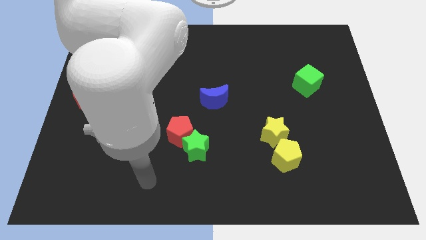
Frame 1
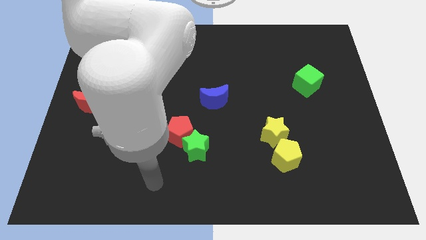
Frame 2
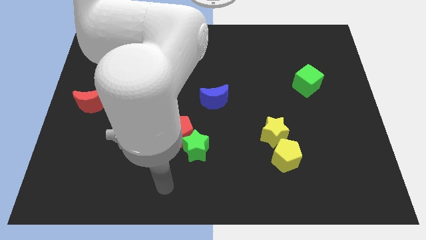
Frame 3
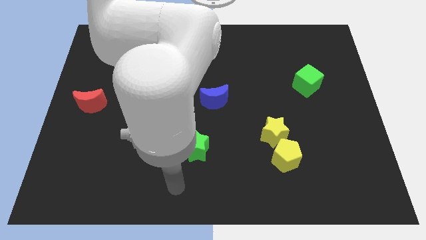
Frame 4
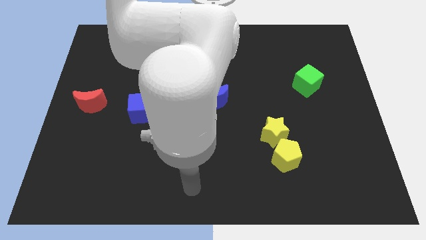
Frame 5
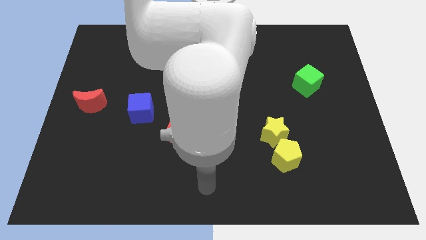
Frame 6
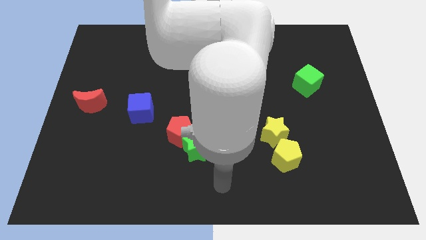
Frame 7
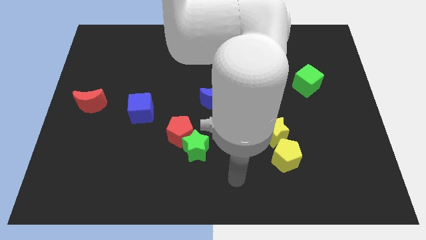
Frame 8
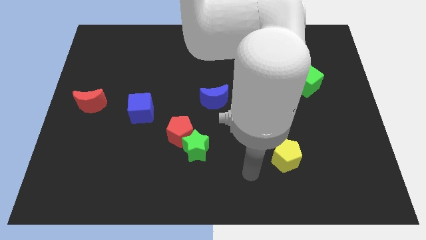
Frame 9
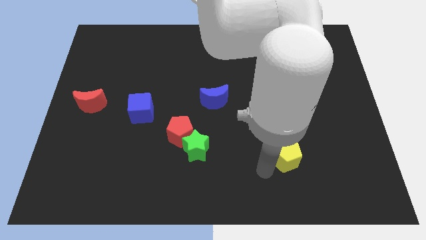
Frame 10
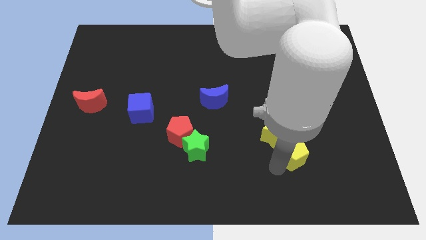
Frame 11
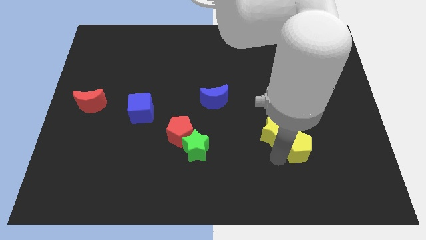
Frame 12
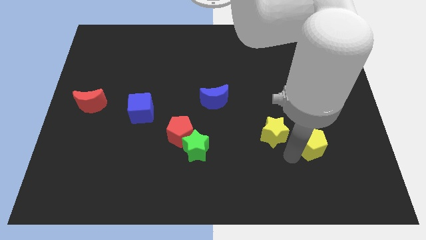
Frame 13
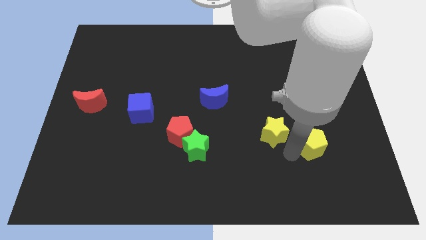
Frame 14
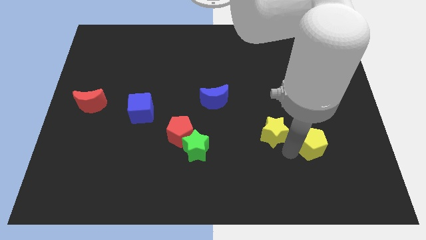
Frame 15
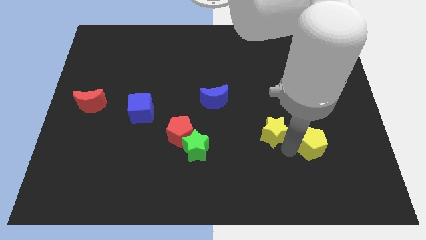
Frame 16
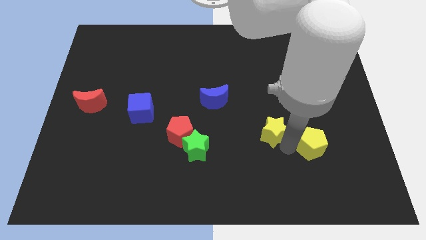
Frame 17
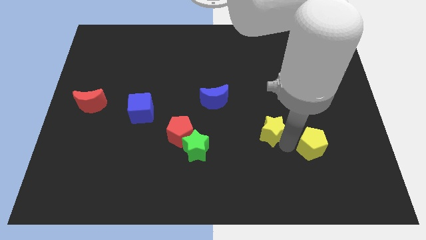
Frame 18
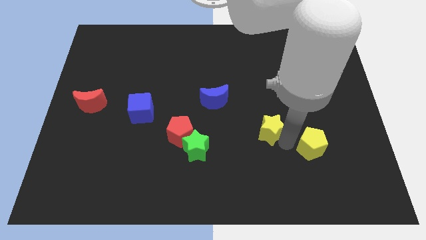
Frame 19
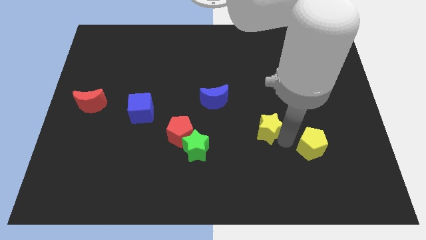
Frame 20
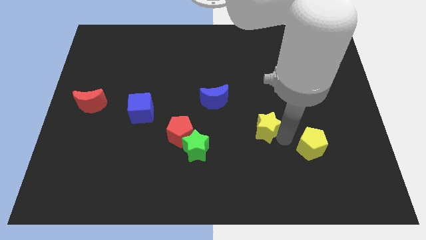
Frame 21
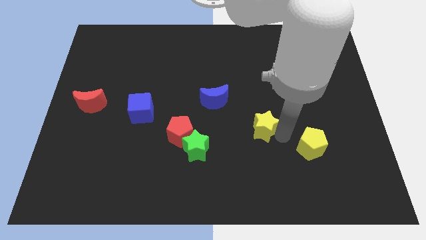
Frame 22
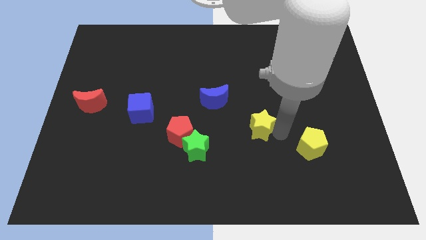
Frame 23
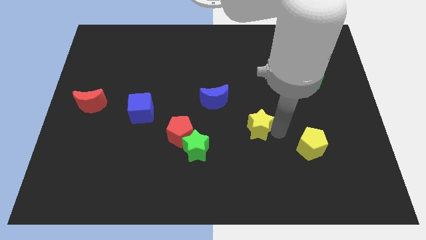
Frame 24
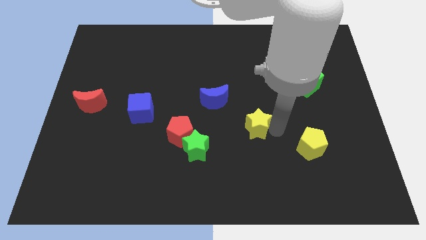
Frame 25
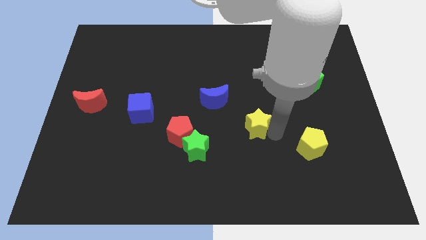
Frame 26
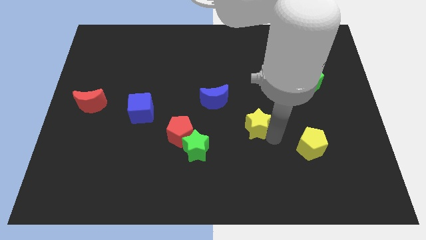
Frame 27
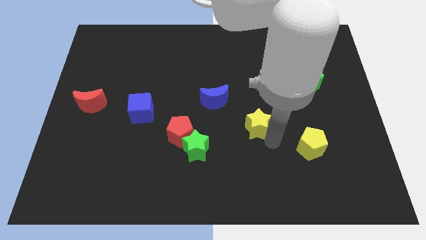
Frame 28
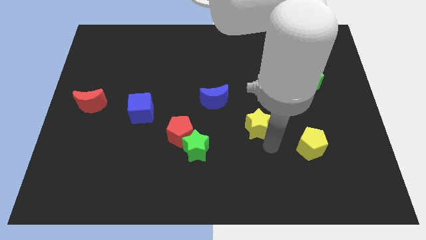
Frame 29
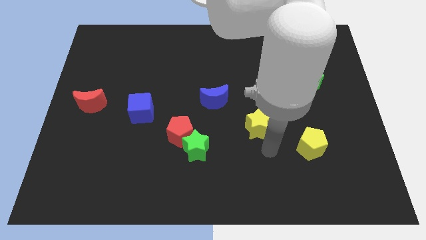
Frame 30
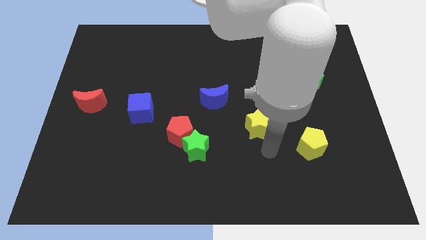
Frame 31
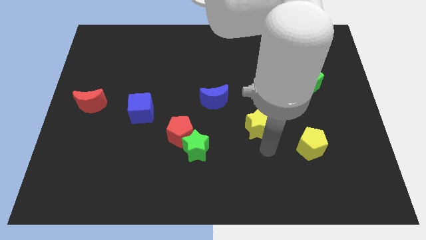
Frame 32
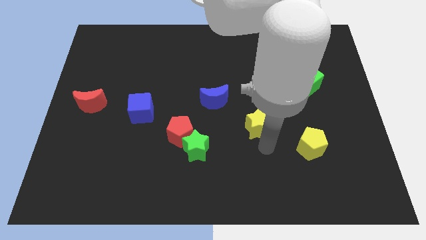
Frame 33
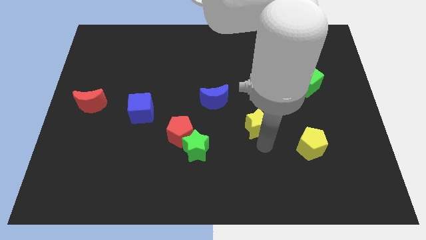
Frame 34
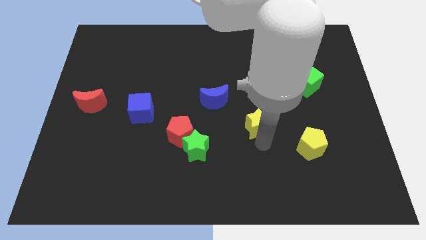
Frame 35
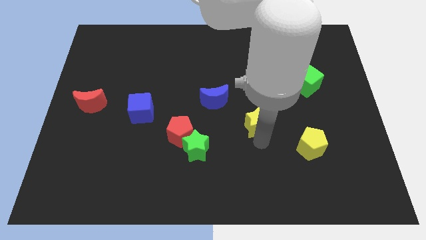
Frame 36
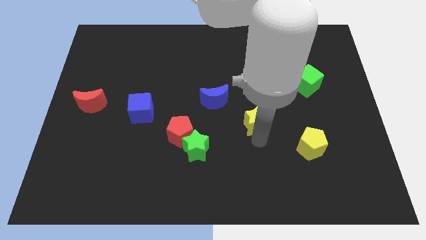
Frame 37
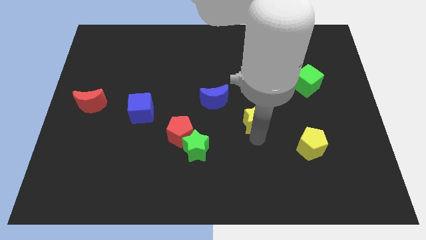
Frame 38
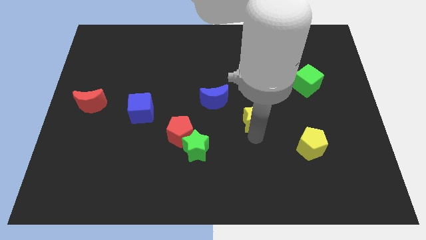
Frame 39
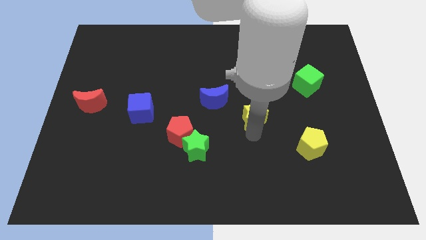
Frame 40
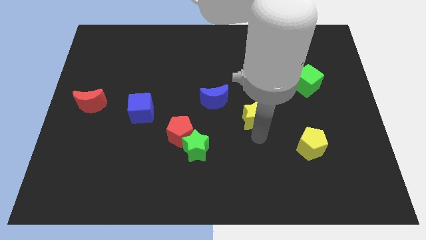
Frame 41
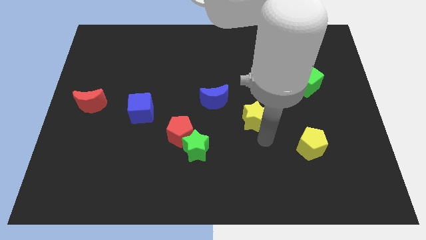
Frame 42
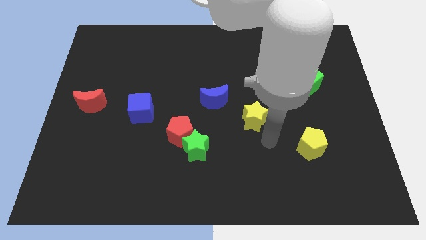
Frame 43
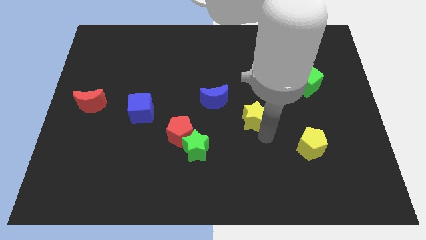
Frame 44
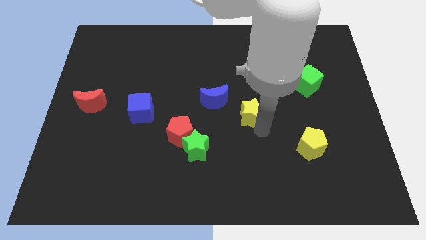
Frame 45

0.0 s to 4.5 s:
slightly move the yellow star upwards and left diagonally

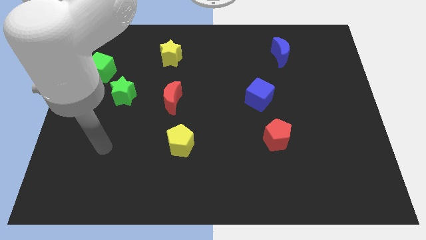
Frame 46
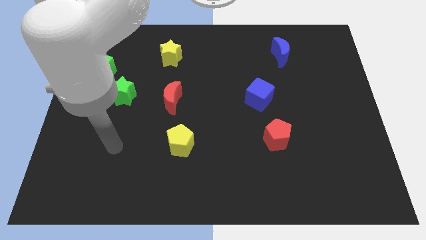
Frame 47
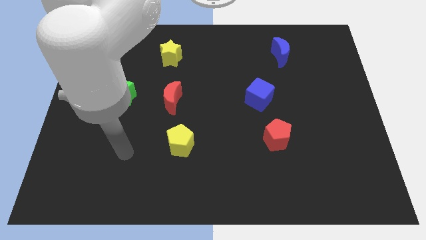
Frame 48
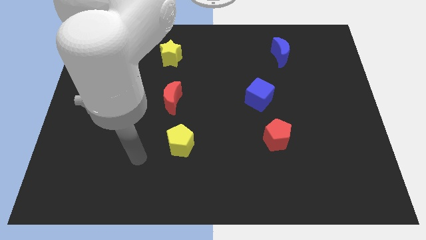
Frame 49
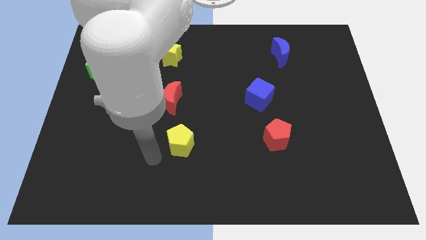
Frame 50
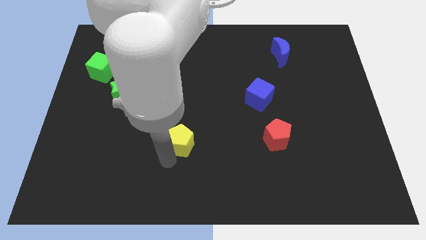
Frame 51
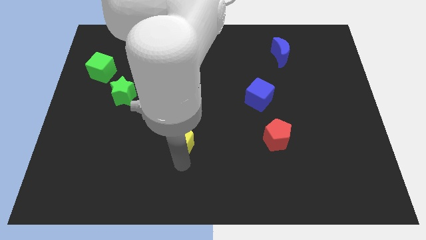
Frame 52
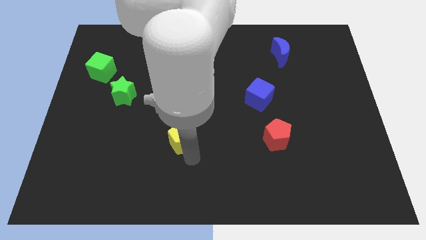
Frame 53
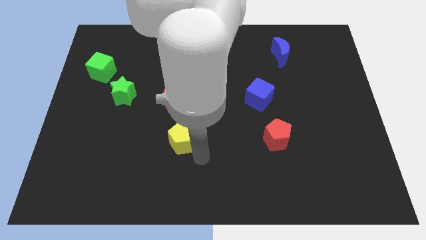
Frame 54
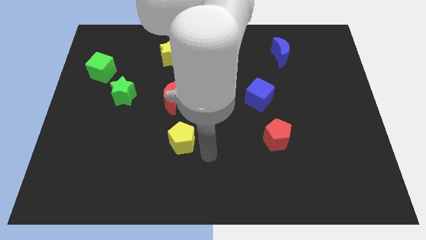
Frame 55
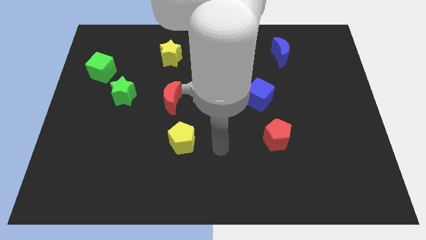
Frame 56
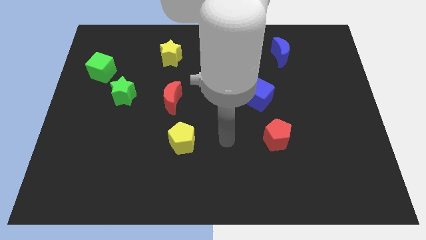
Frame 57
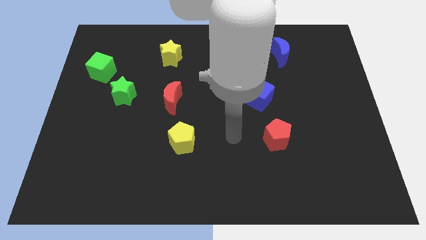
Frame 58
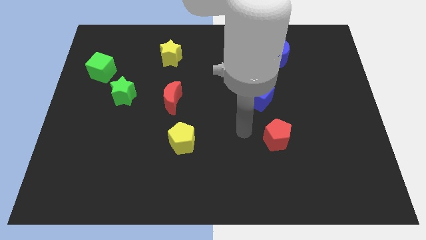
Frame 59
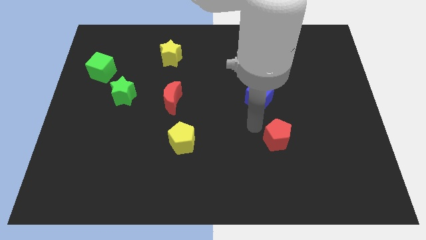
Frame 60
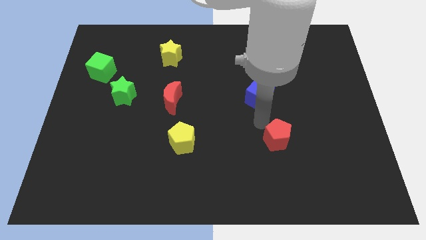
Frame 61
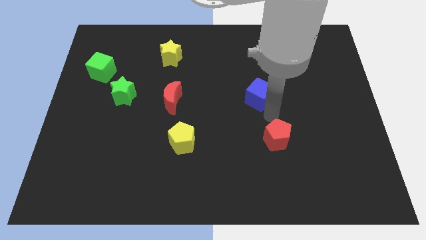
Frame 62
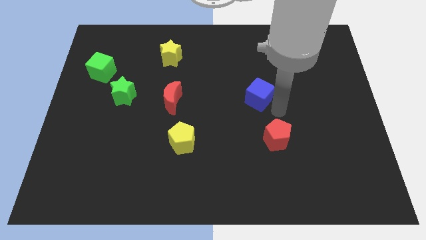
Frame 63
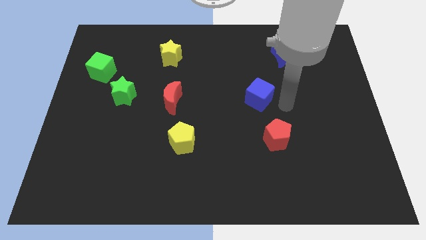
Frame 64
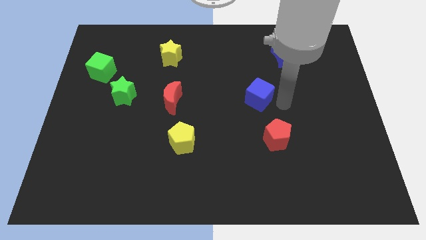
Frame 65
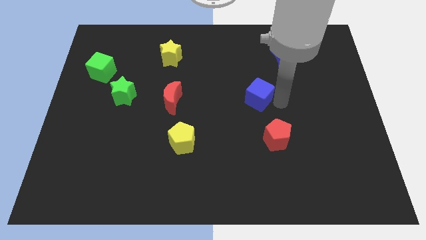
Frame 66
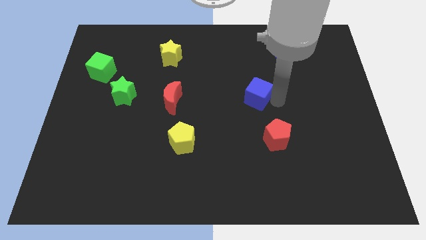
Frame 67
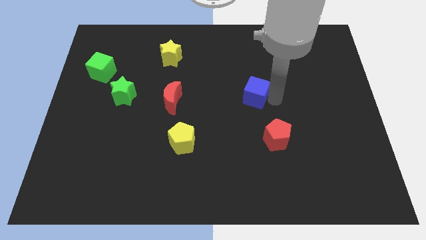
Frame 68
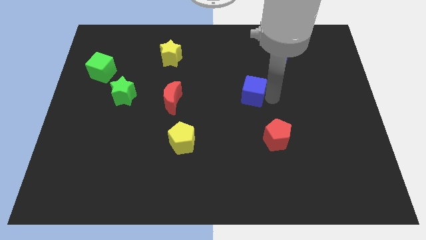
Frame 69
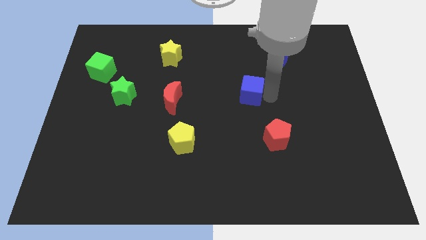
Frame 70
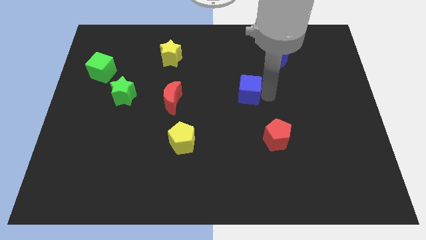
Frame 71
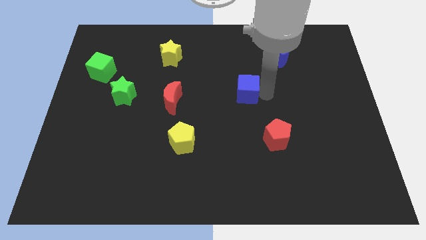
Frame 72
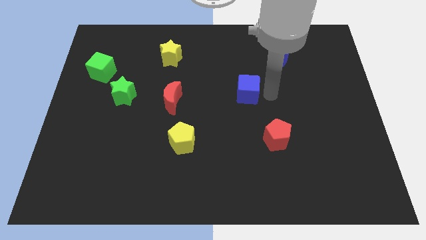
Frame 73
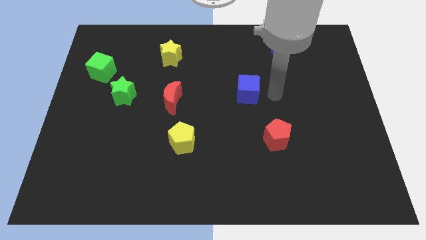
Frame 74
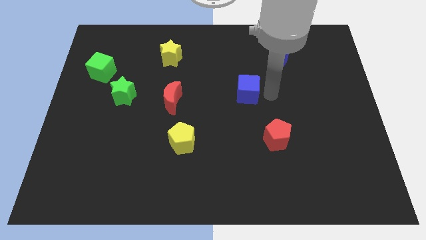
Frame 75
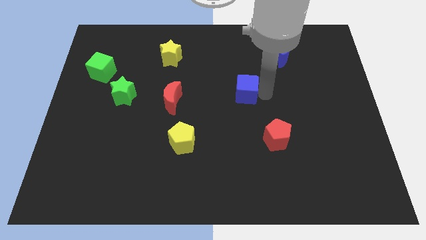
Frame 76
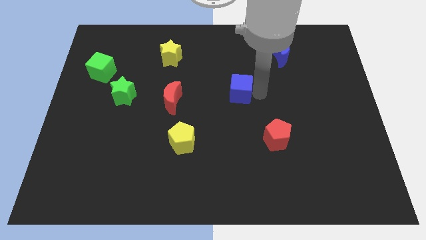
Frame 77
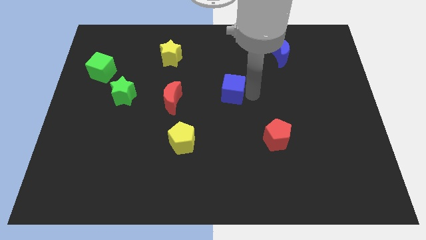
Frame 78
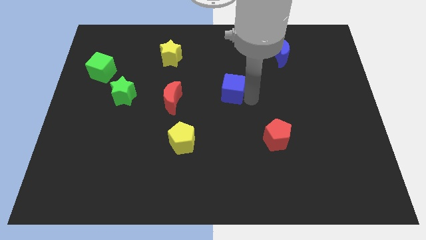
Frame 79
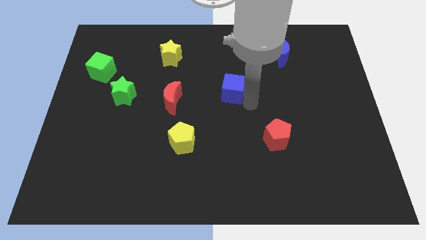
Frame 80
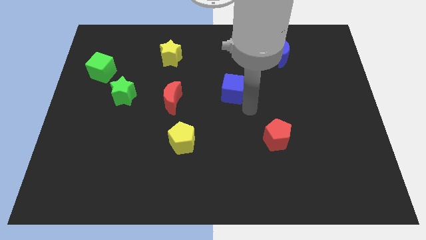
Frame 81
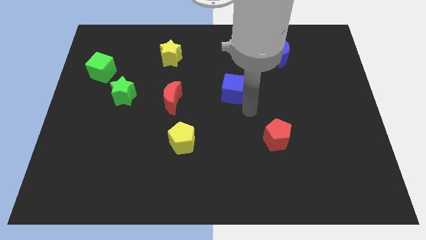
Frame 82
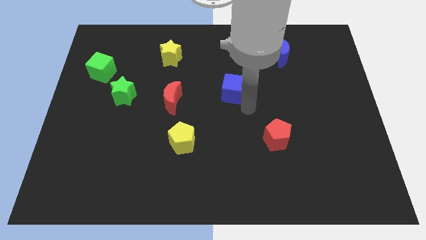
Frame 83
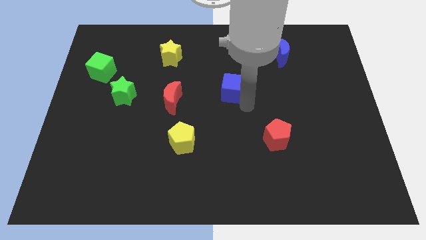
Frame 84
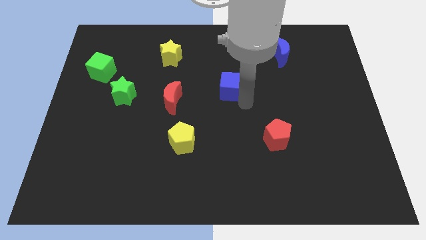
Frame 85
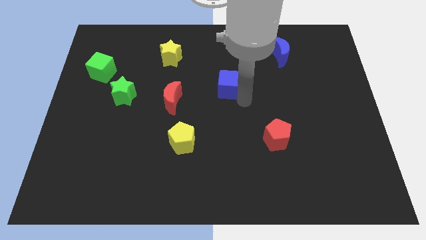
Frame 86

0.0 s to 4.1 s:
slightly slide the blue cube up and left
